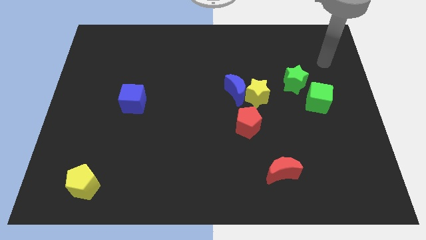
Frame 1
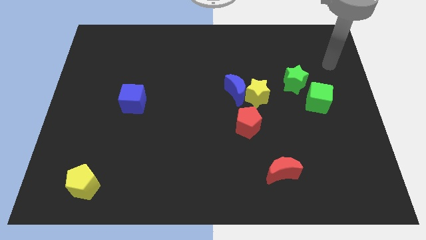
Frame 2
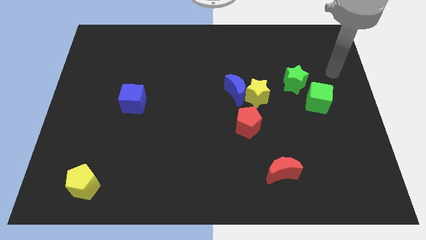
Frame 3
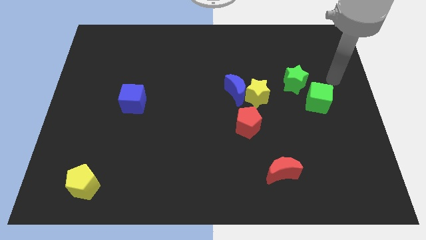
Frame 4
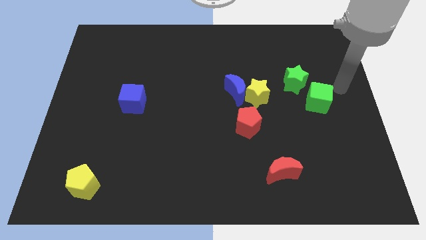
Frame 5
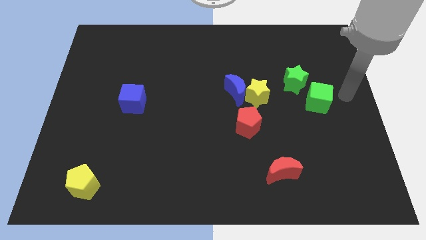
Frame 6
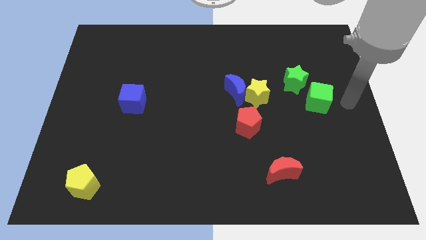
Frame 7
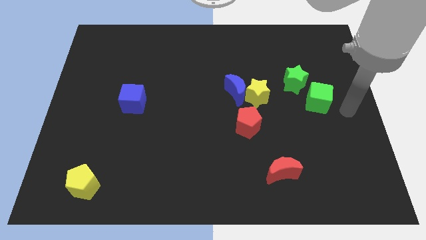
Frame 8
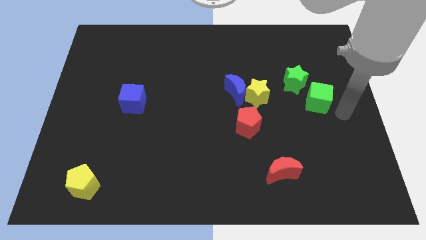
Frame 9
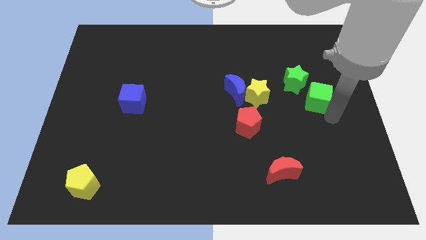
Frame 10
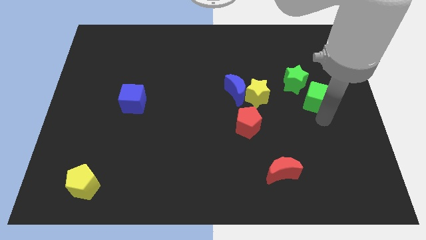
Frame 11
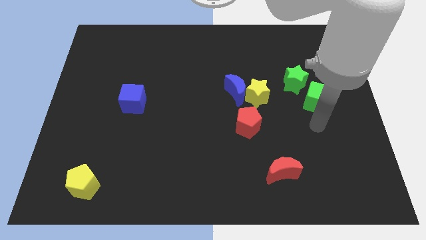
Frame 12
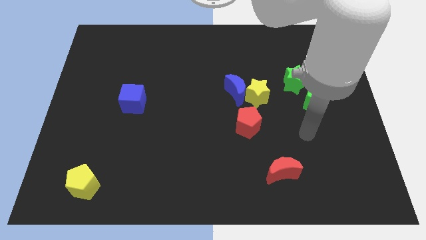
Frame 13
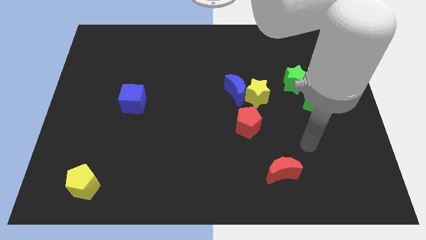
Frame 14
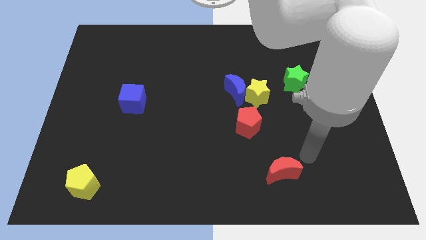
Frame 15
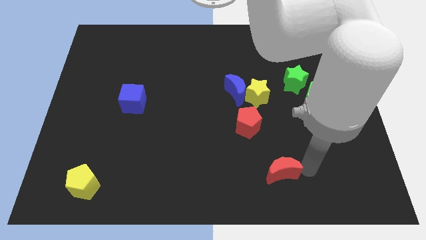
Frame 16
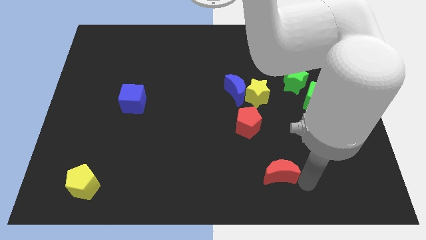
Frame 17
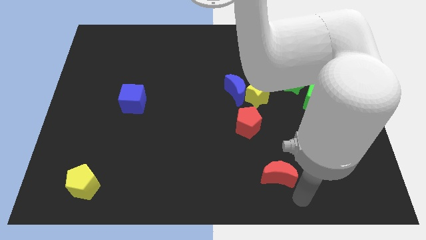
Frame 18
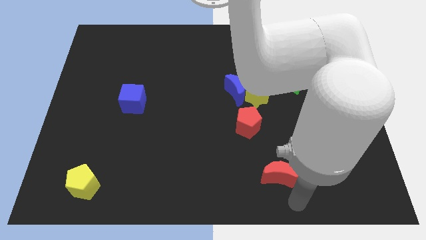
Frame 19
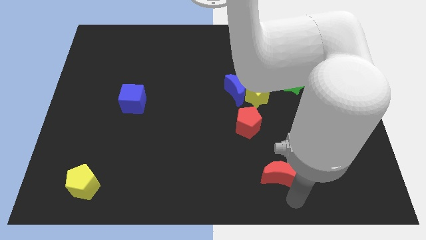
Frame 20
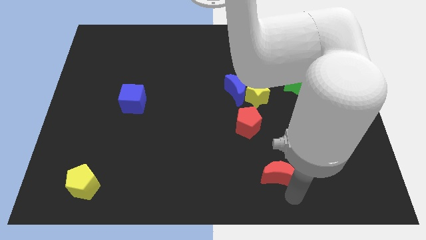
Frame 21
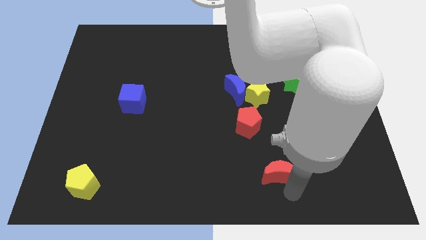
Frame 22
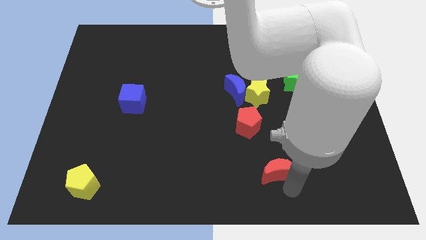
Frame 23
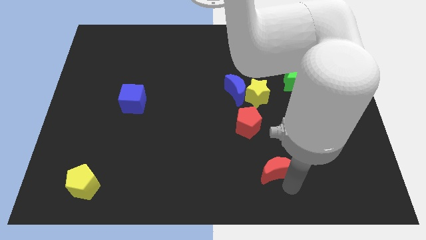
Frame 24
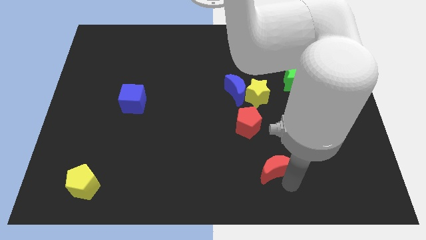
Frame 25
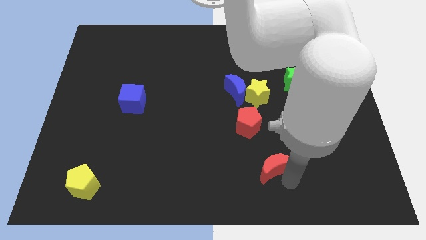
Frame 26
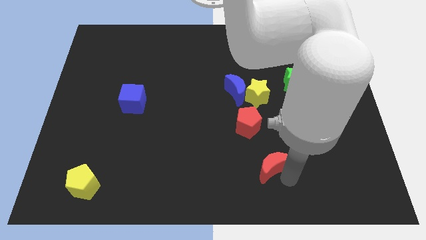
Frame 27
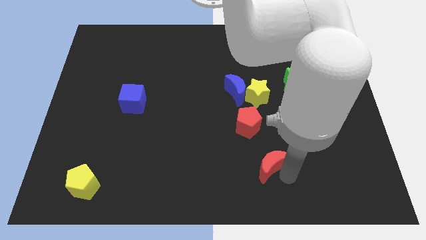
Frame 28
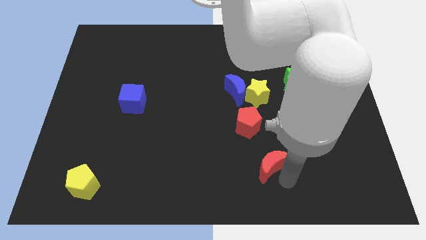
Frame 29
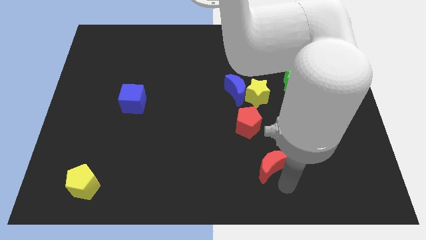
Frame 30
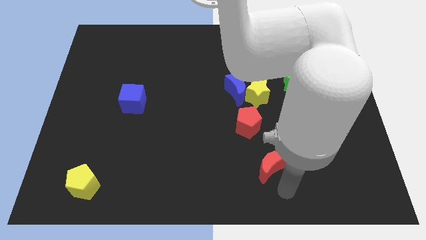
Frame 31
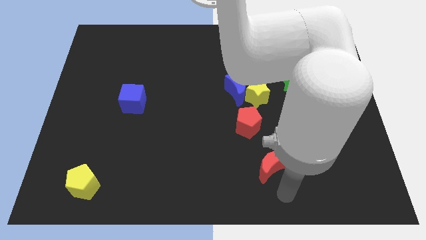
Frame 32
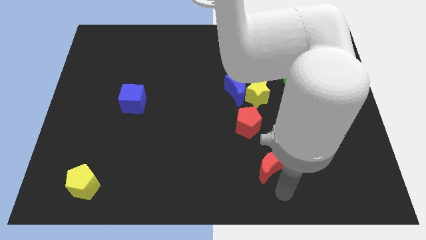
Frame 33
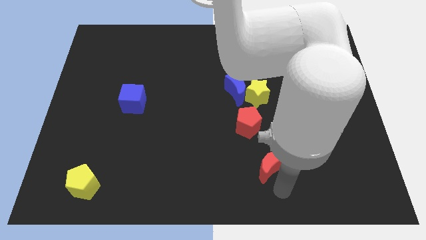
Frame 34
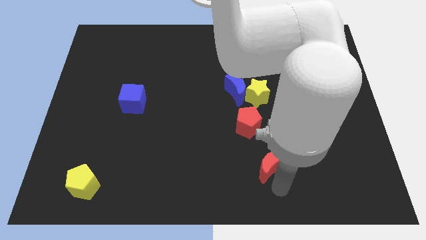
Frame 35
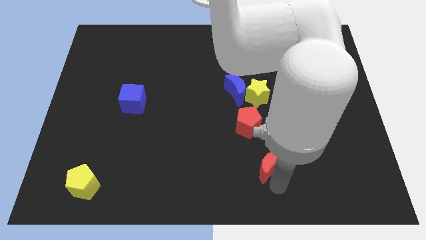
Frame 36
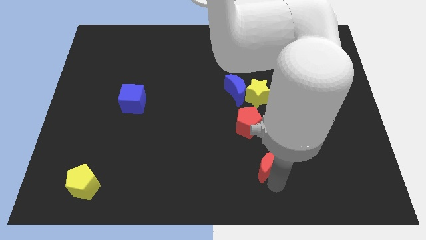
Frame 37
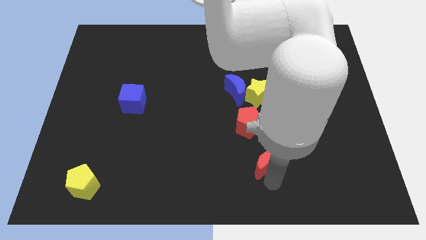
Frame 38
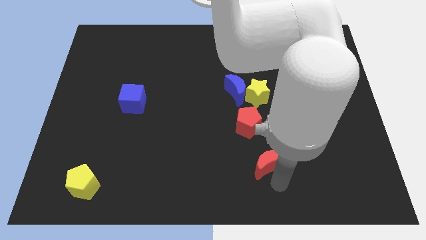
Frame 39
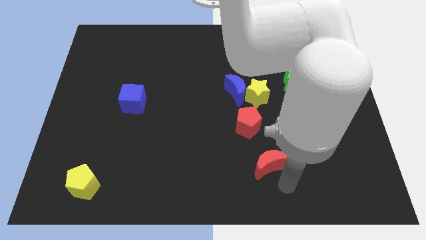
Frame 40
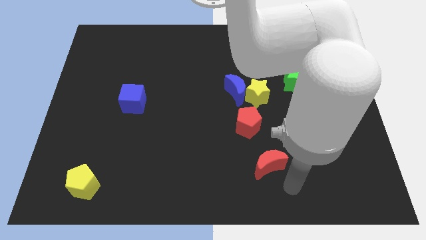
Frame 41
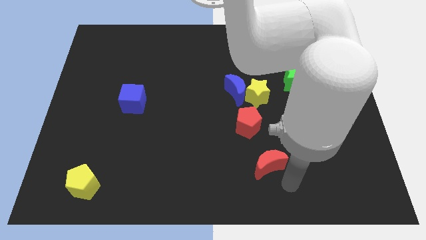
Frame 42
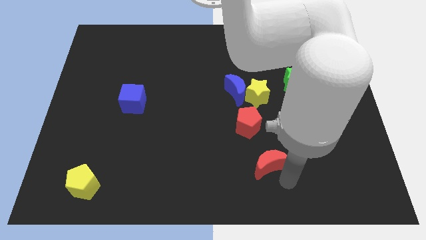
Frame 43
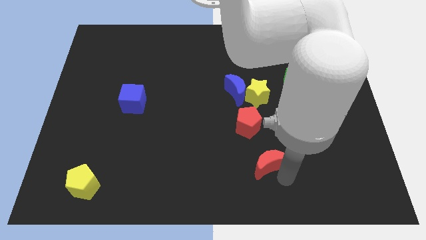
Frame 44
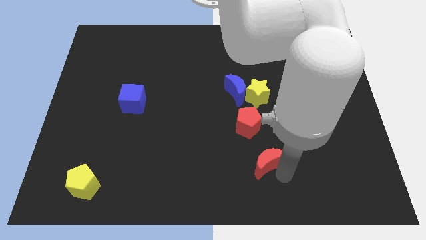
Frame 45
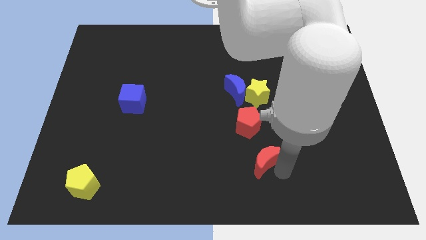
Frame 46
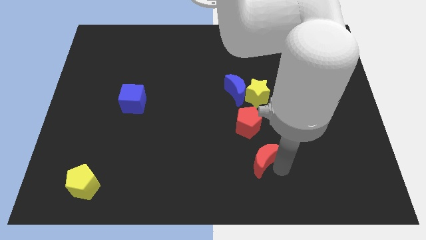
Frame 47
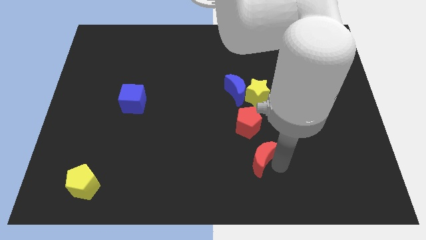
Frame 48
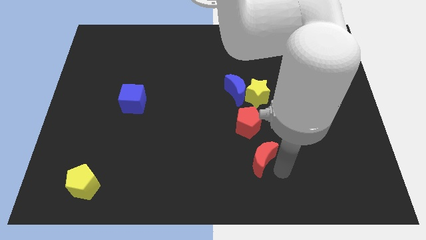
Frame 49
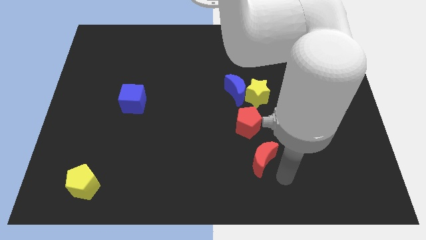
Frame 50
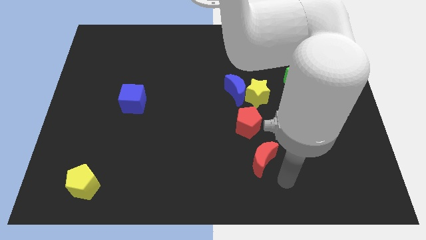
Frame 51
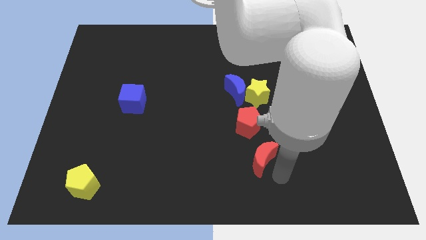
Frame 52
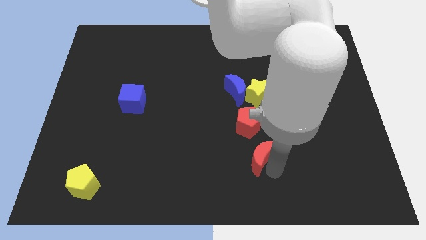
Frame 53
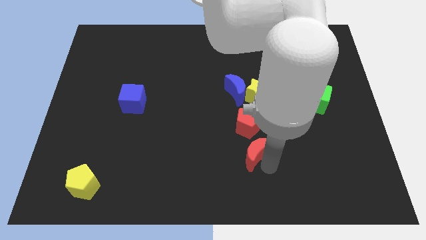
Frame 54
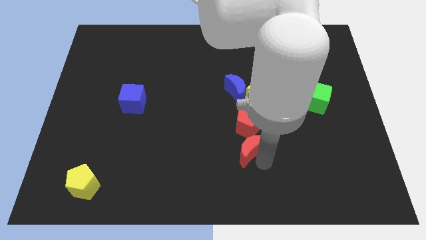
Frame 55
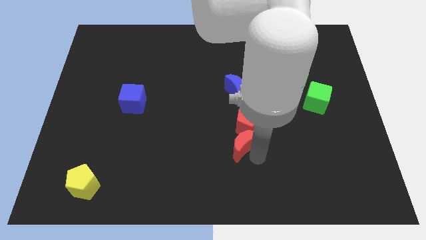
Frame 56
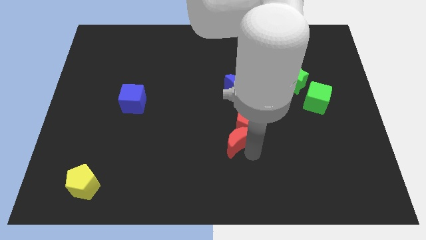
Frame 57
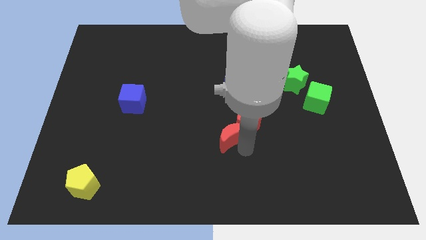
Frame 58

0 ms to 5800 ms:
move the red moon to the middle

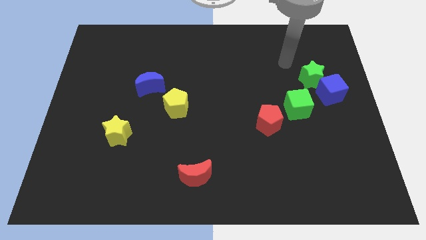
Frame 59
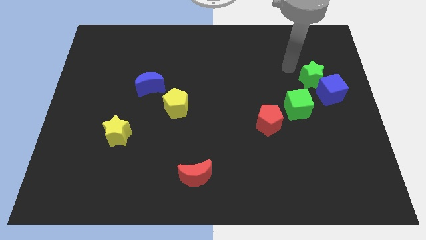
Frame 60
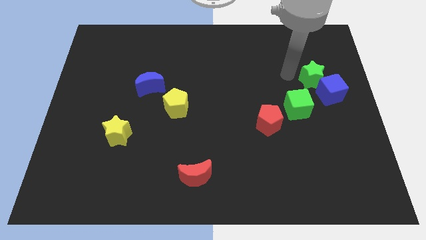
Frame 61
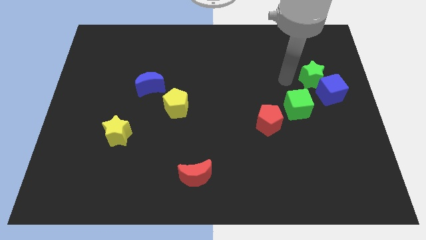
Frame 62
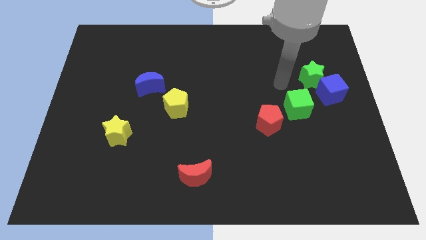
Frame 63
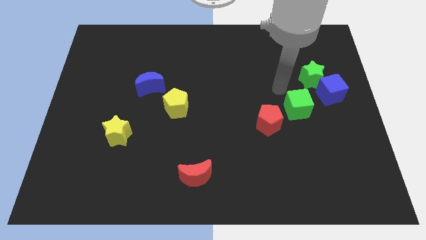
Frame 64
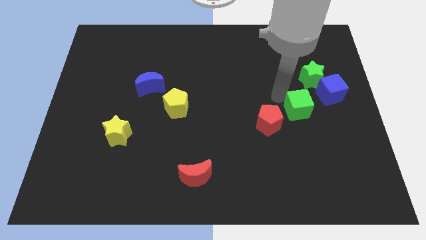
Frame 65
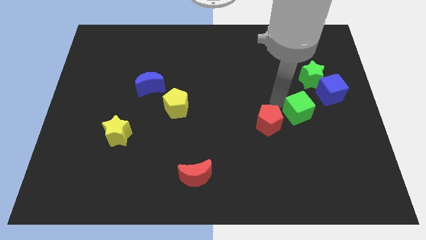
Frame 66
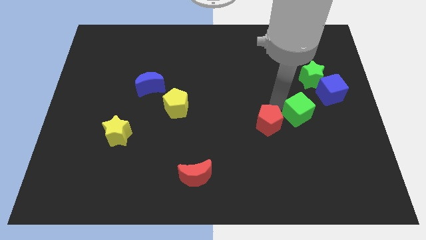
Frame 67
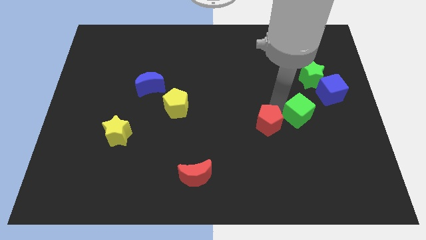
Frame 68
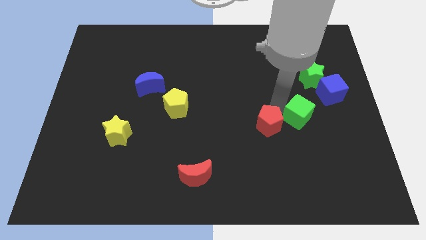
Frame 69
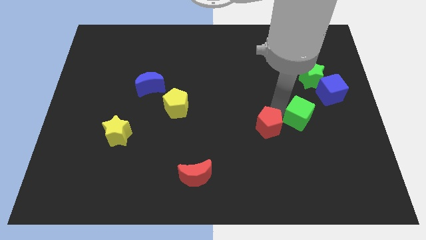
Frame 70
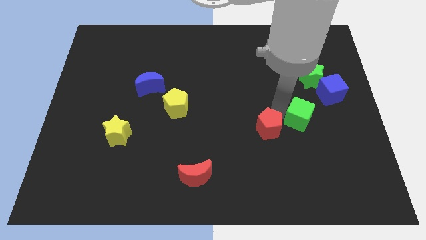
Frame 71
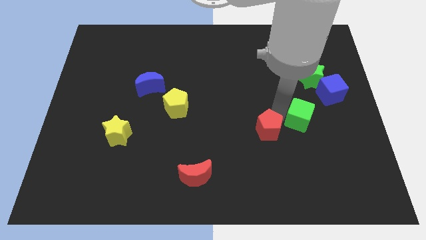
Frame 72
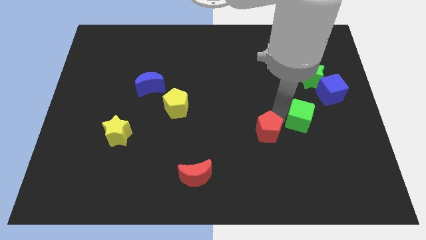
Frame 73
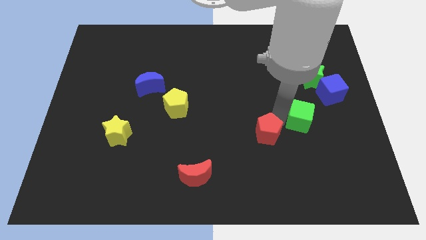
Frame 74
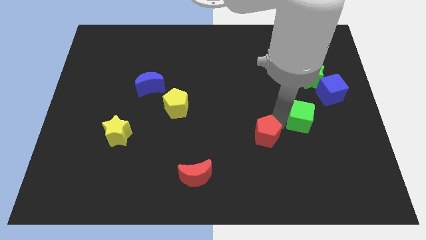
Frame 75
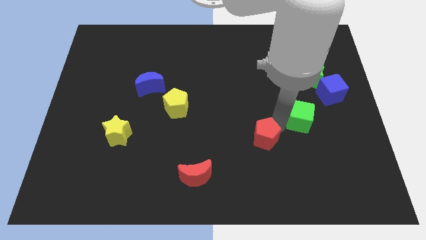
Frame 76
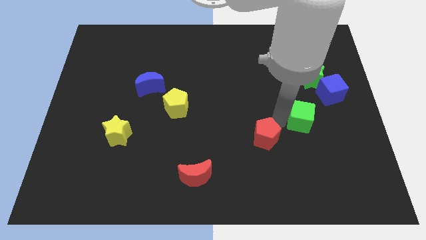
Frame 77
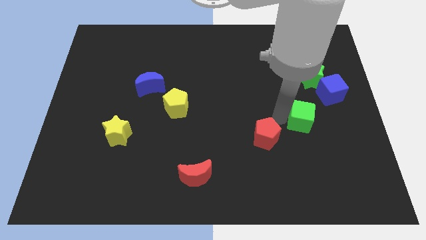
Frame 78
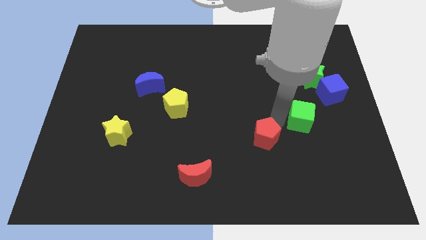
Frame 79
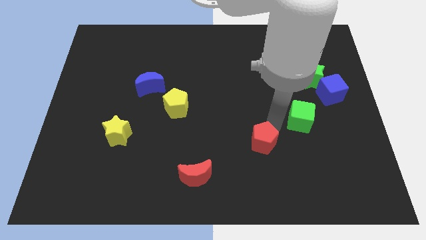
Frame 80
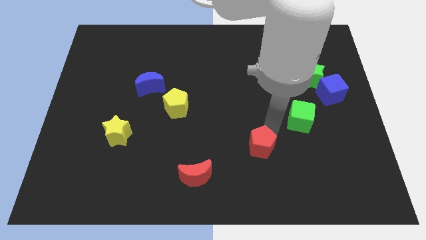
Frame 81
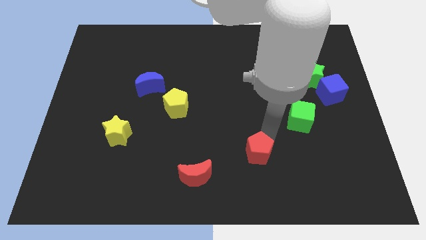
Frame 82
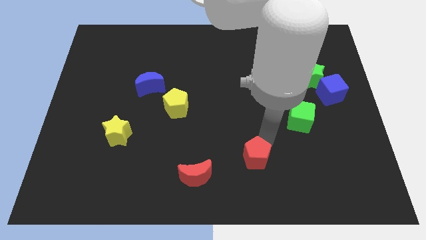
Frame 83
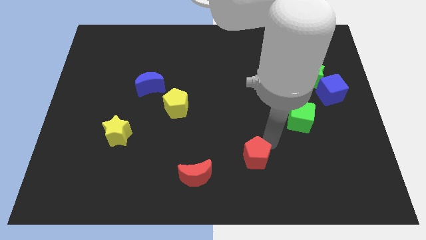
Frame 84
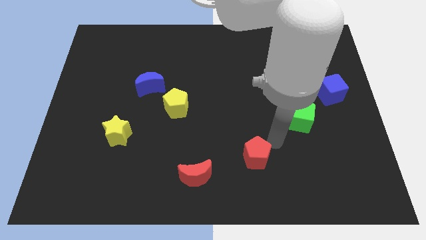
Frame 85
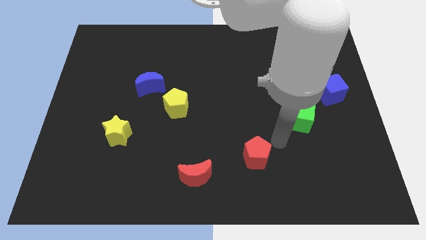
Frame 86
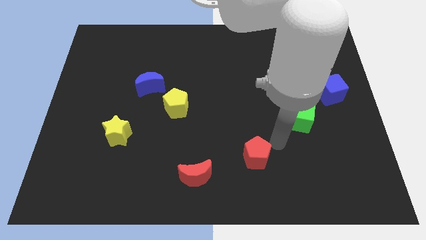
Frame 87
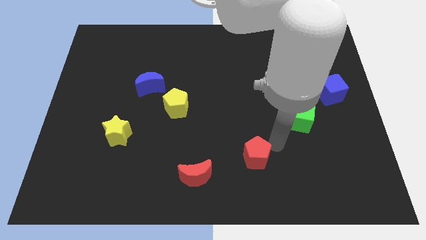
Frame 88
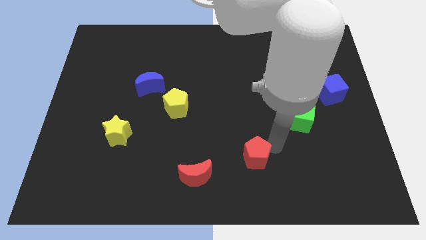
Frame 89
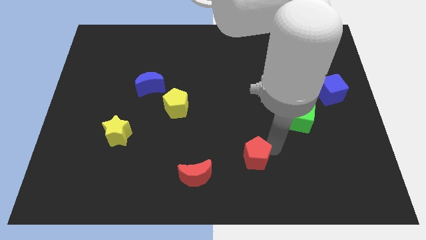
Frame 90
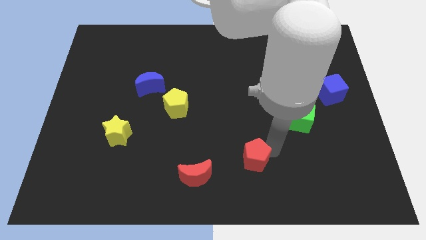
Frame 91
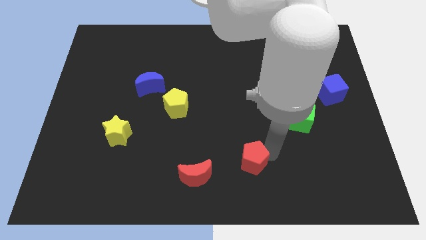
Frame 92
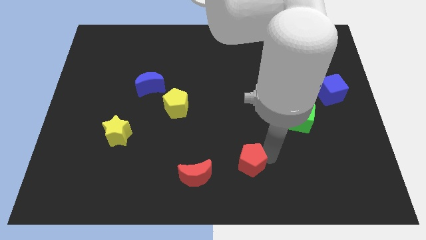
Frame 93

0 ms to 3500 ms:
put the red pentagon to the bottom side
